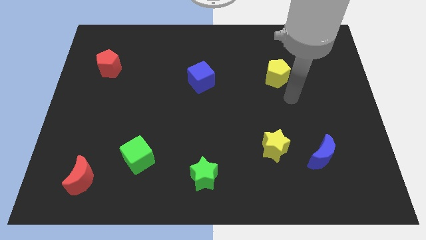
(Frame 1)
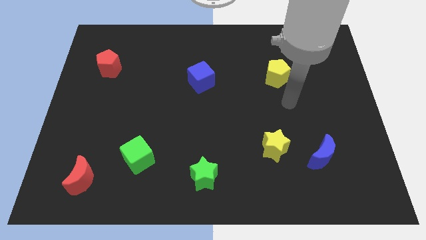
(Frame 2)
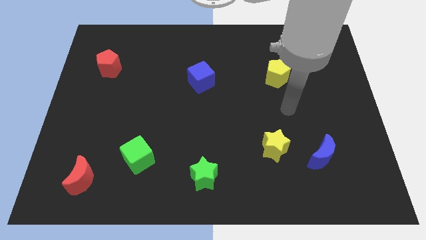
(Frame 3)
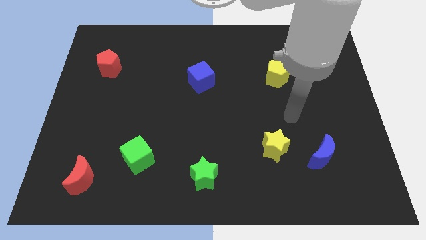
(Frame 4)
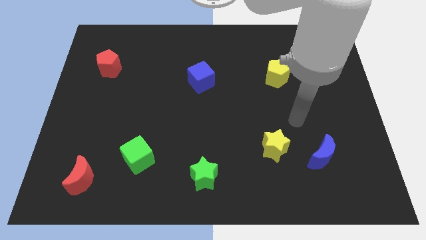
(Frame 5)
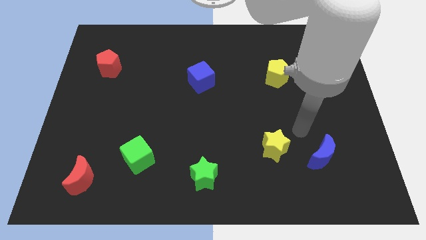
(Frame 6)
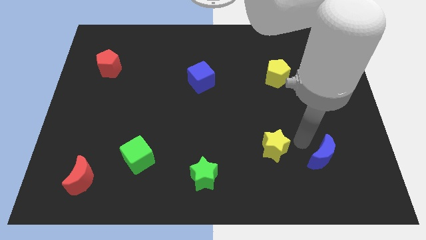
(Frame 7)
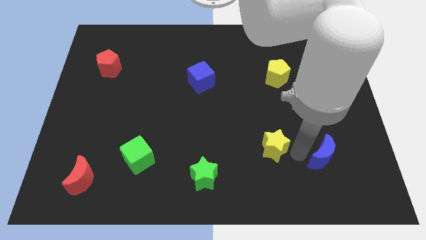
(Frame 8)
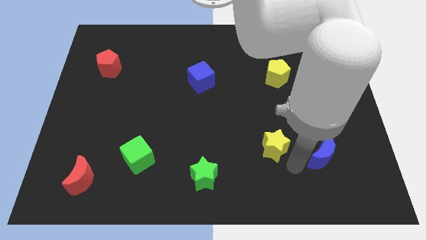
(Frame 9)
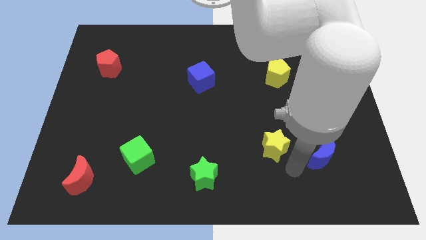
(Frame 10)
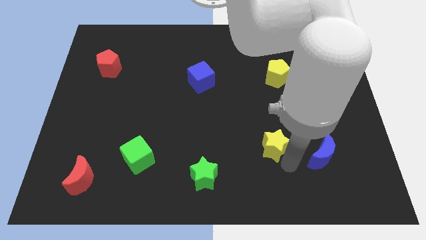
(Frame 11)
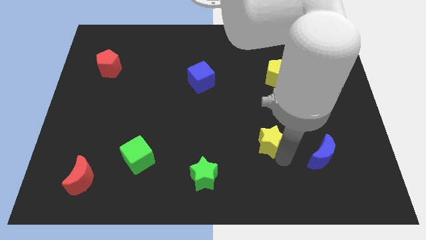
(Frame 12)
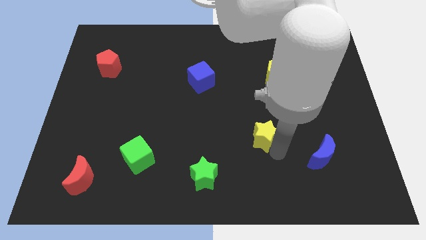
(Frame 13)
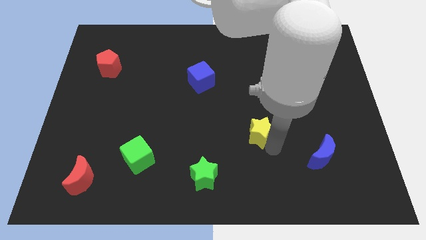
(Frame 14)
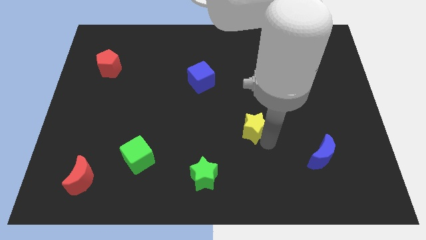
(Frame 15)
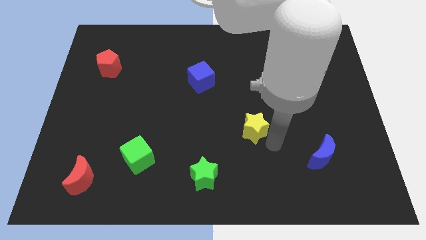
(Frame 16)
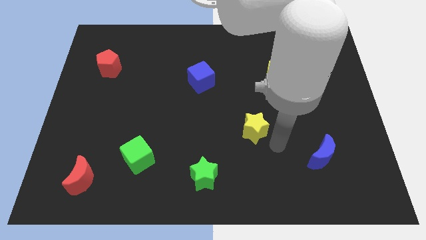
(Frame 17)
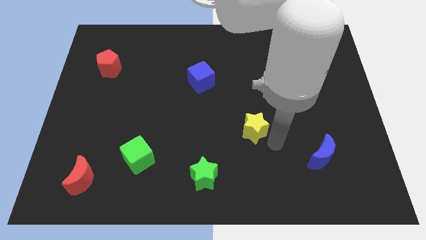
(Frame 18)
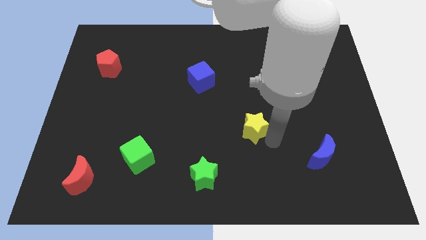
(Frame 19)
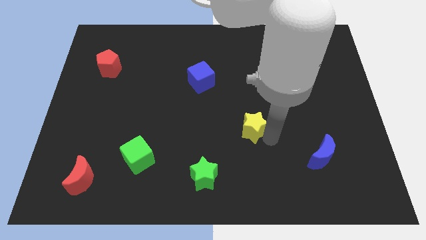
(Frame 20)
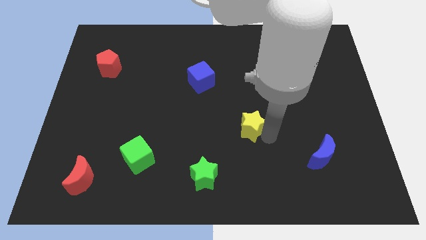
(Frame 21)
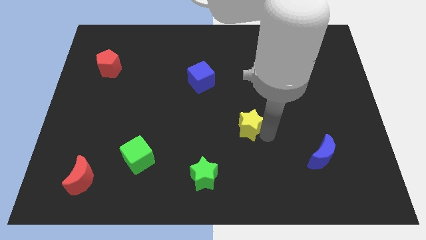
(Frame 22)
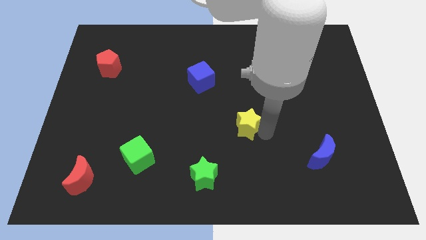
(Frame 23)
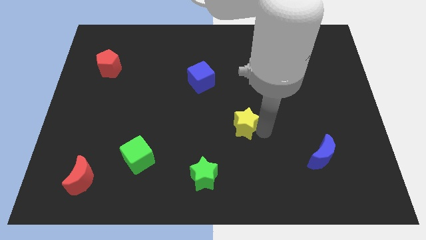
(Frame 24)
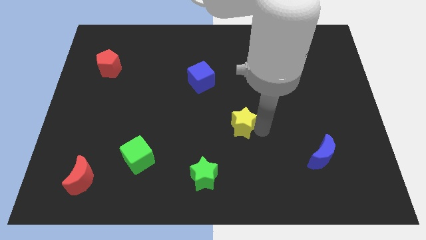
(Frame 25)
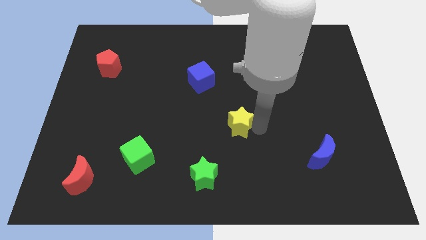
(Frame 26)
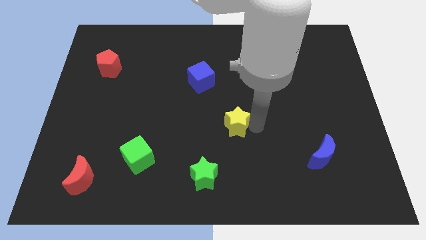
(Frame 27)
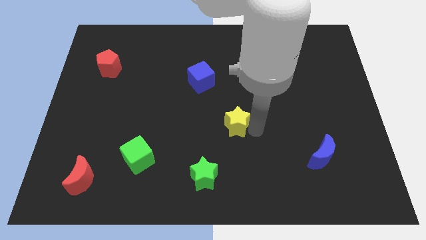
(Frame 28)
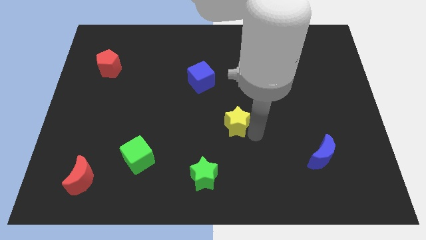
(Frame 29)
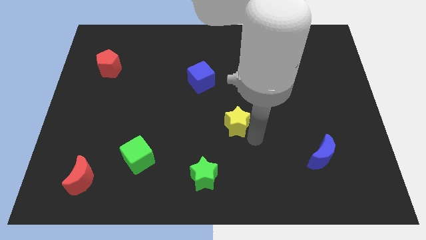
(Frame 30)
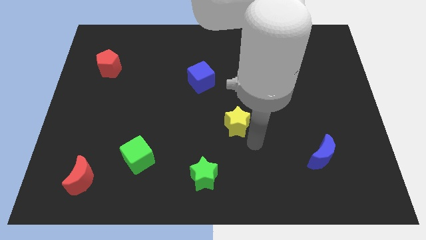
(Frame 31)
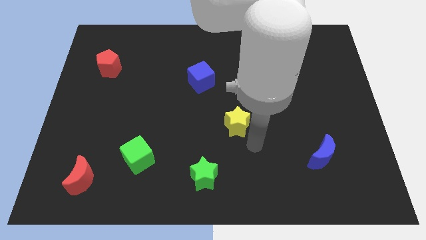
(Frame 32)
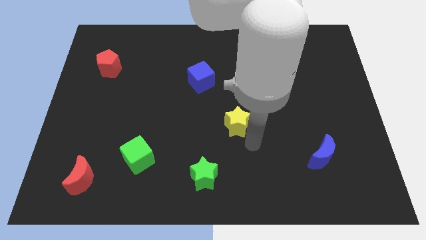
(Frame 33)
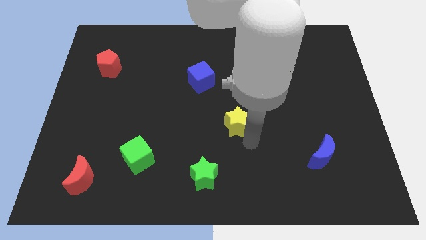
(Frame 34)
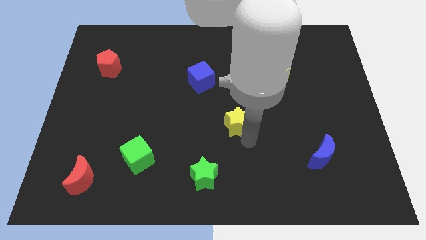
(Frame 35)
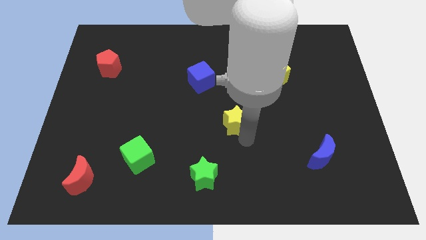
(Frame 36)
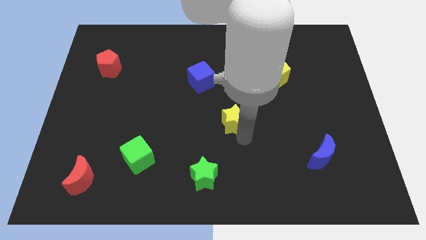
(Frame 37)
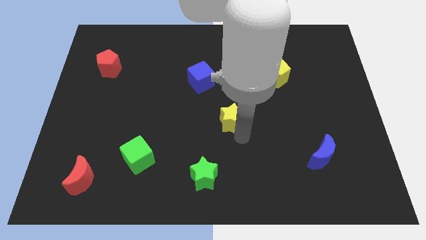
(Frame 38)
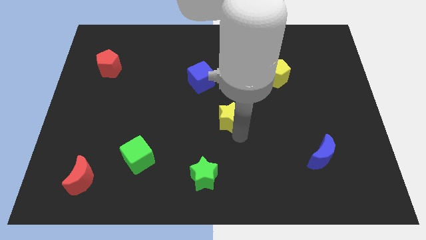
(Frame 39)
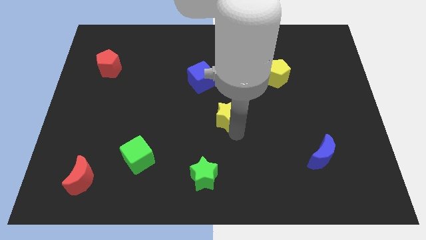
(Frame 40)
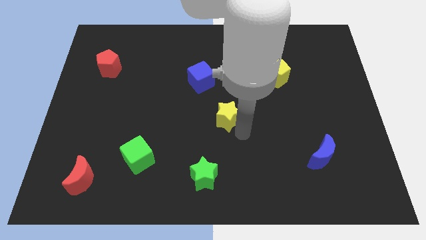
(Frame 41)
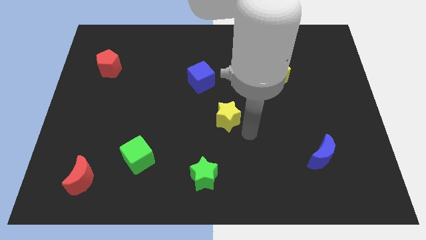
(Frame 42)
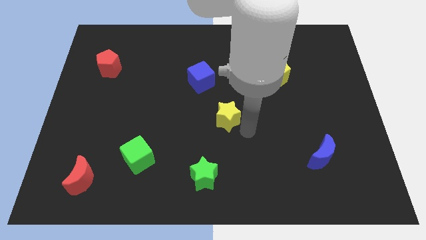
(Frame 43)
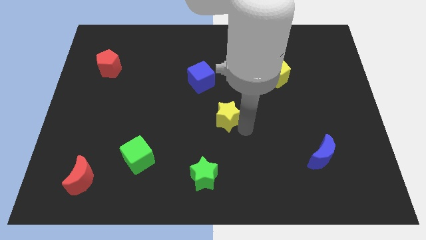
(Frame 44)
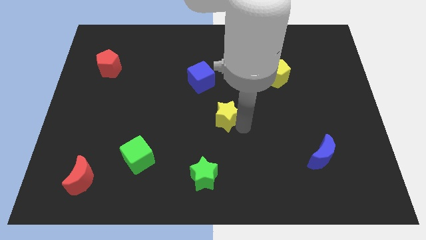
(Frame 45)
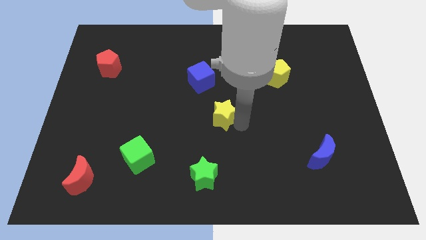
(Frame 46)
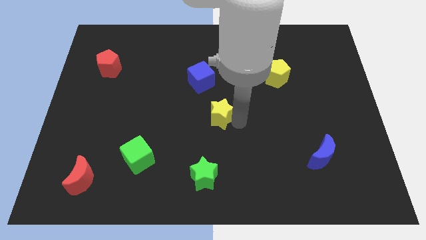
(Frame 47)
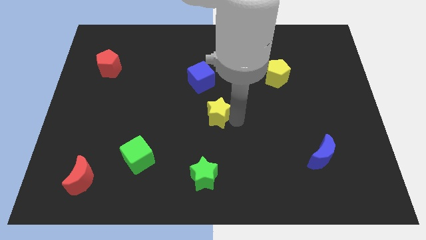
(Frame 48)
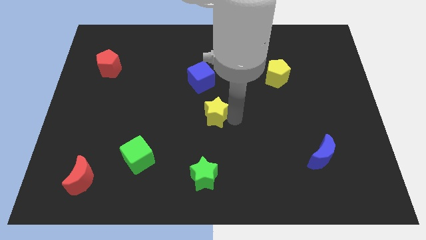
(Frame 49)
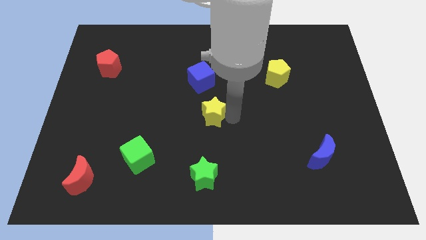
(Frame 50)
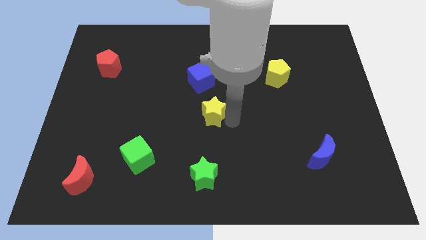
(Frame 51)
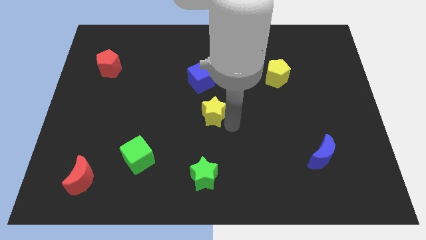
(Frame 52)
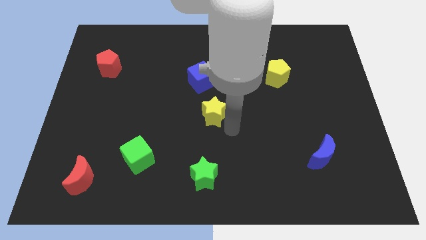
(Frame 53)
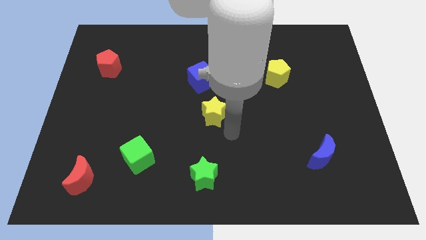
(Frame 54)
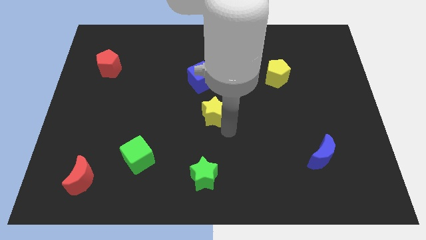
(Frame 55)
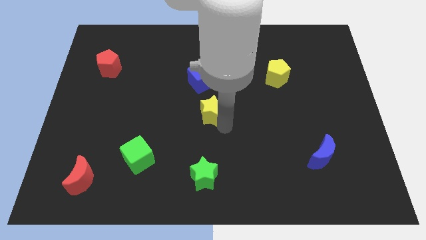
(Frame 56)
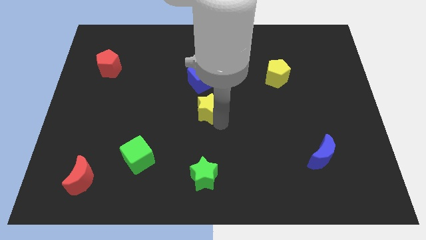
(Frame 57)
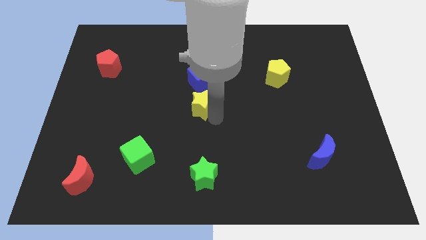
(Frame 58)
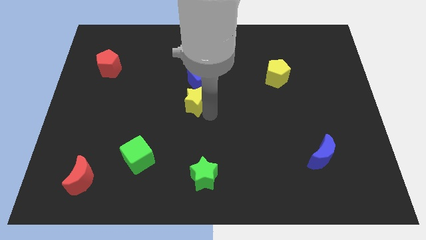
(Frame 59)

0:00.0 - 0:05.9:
move the yellow star diagonally up and left

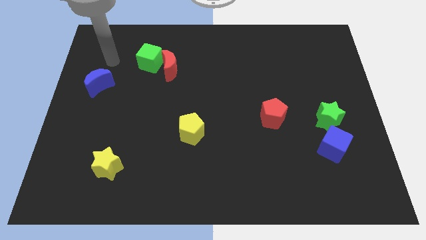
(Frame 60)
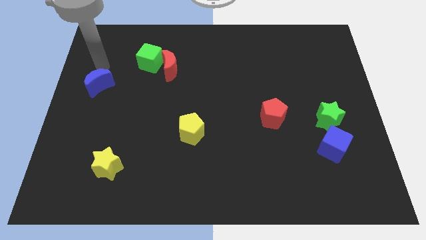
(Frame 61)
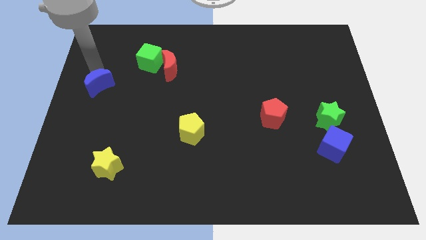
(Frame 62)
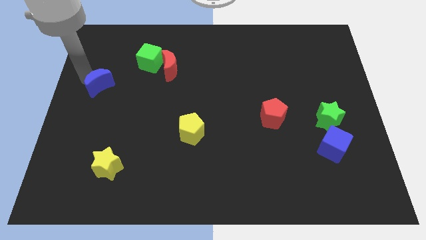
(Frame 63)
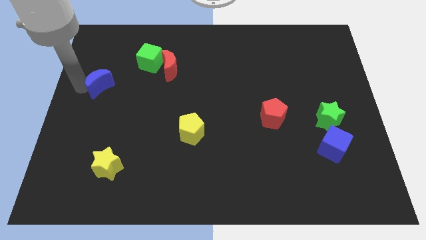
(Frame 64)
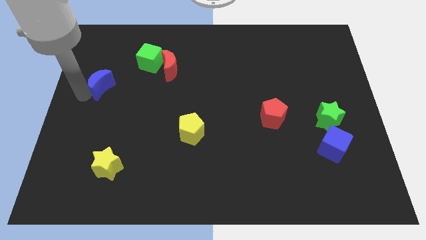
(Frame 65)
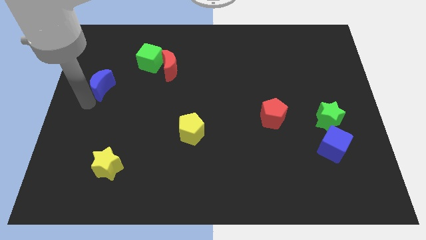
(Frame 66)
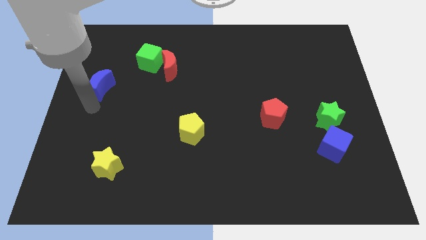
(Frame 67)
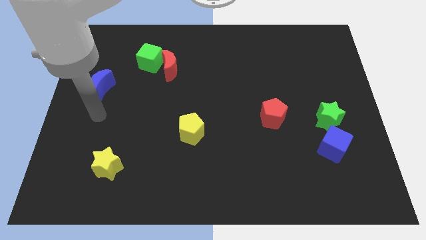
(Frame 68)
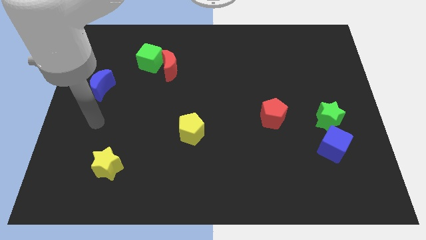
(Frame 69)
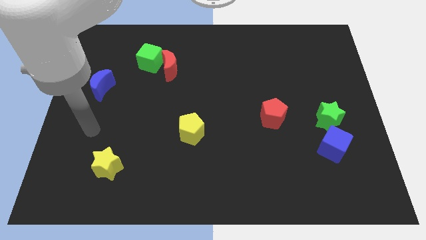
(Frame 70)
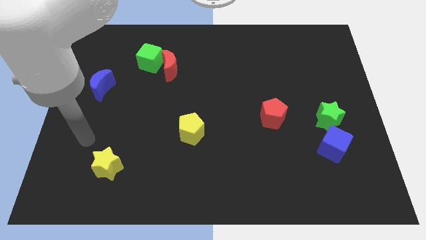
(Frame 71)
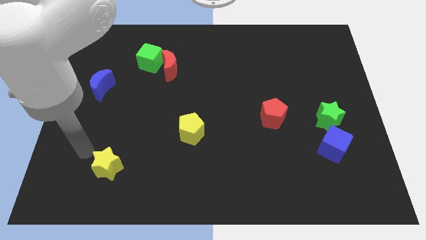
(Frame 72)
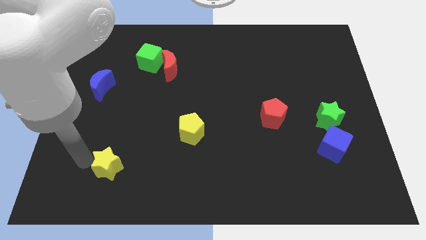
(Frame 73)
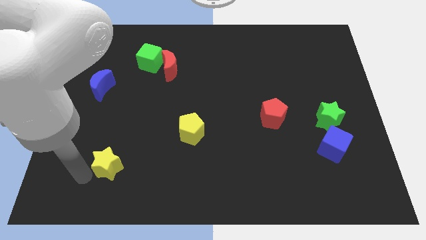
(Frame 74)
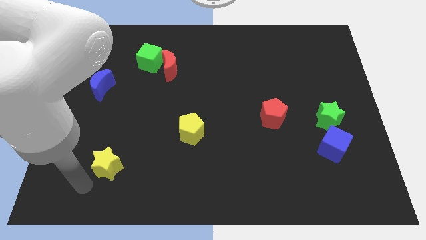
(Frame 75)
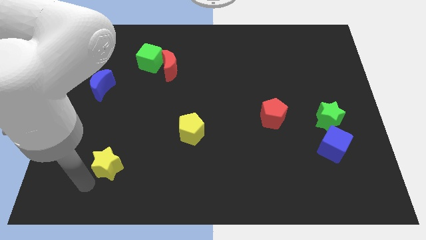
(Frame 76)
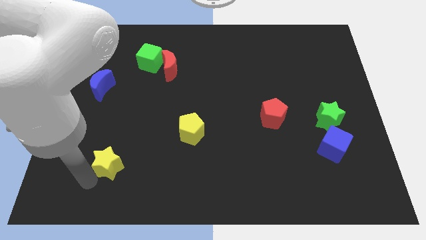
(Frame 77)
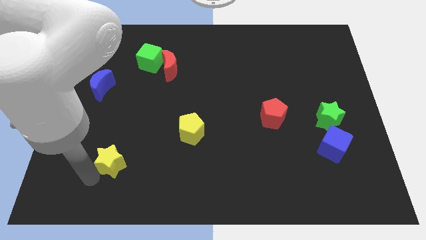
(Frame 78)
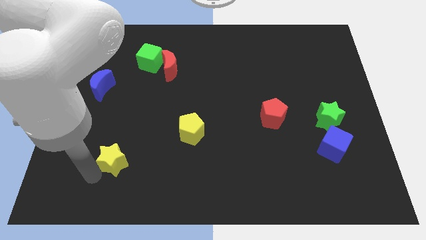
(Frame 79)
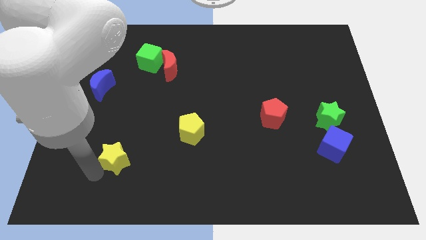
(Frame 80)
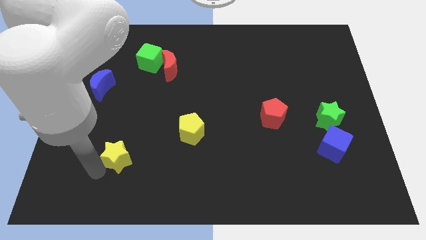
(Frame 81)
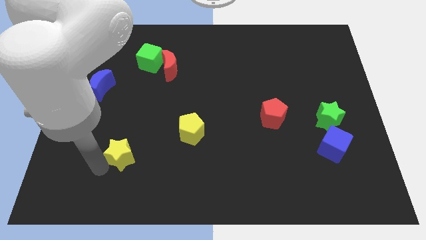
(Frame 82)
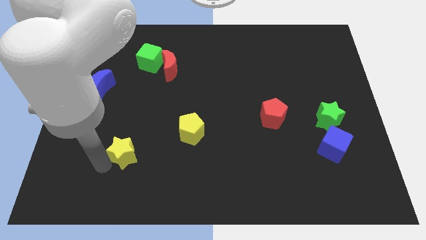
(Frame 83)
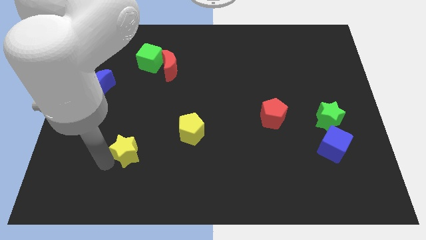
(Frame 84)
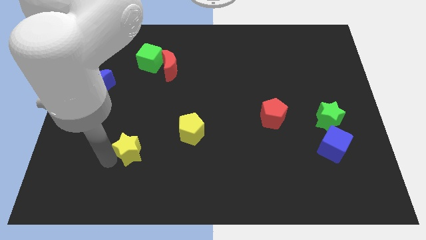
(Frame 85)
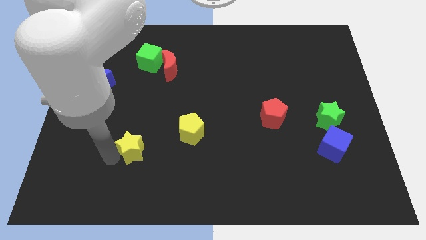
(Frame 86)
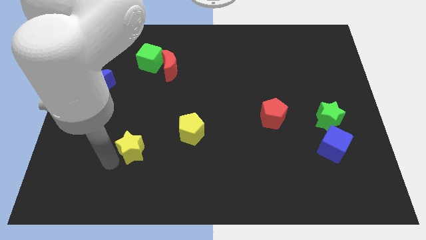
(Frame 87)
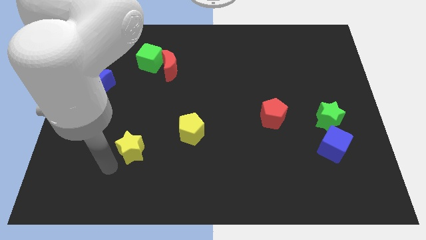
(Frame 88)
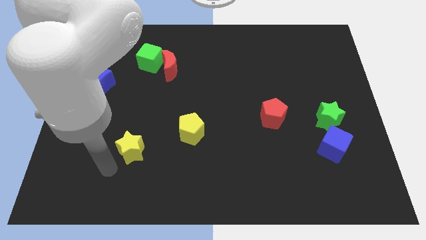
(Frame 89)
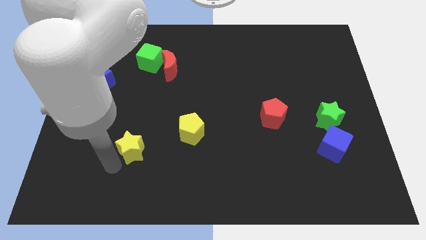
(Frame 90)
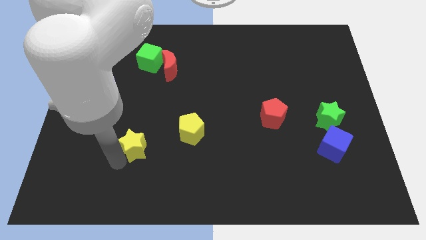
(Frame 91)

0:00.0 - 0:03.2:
slide the yellow star a bit up and to the right diagonally
